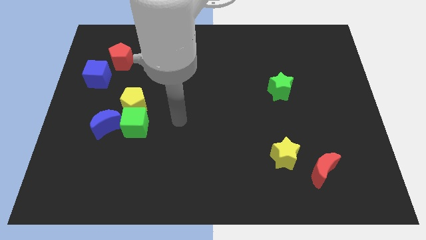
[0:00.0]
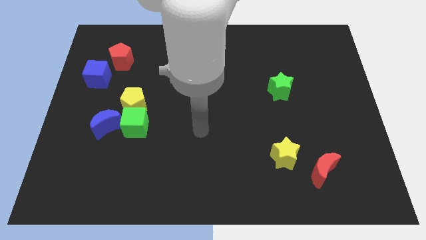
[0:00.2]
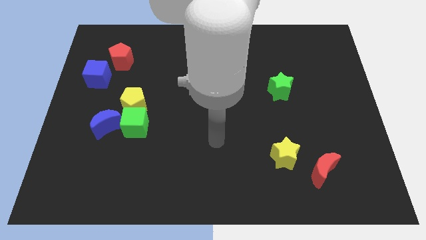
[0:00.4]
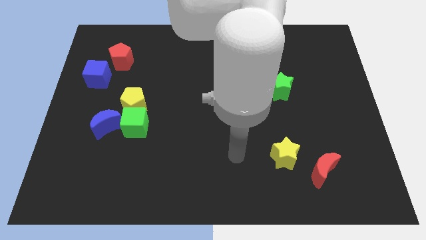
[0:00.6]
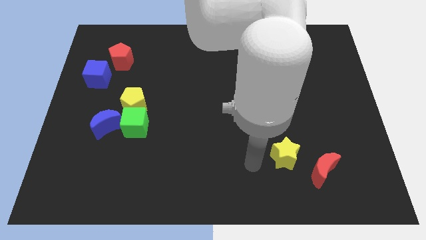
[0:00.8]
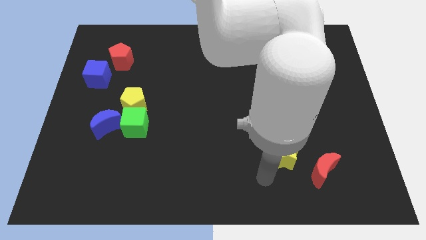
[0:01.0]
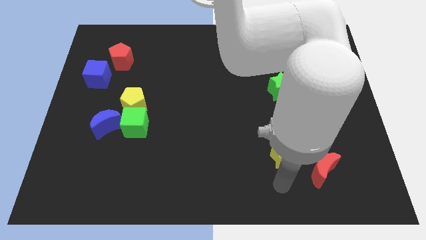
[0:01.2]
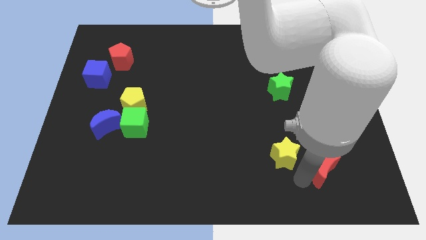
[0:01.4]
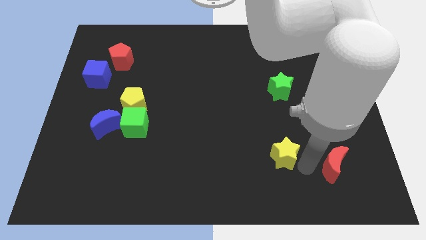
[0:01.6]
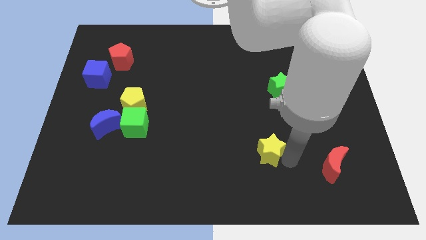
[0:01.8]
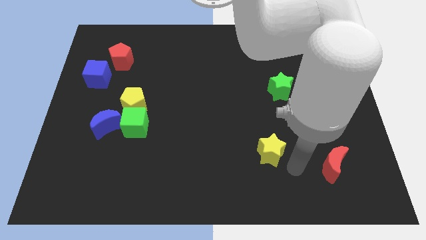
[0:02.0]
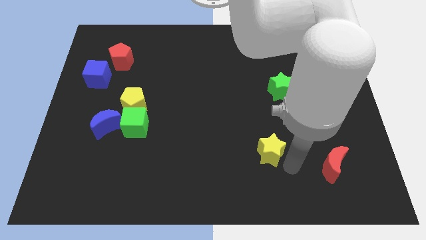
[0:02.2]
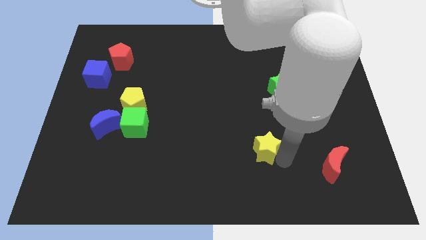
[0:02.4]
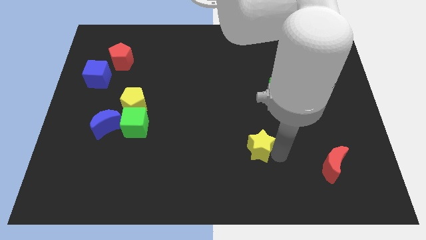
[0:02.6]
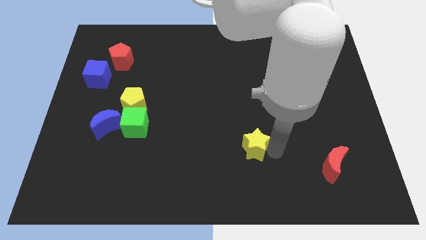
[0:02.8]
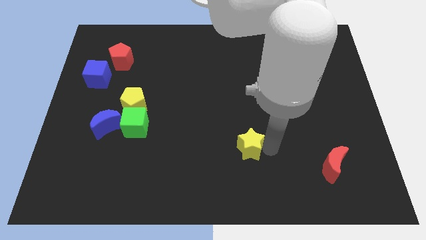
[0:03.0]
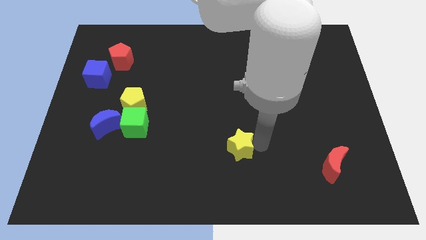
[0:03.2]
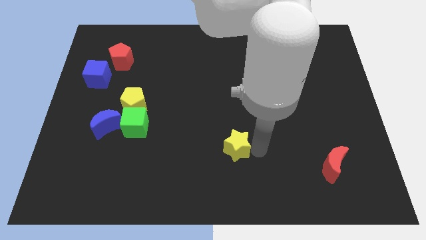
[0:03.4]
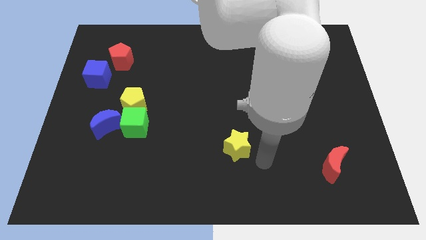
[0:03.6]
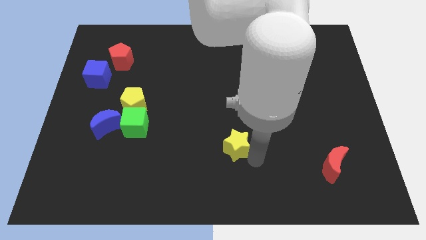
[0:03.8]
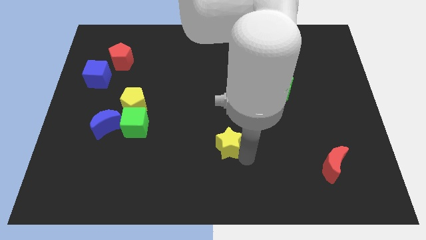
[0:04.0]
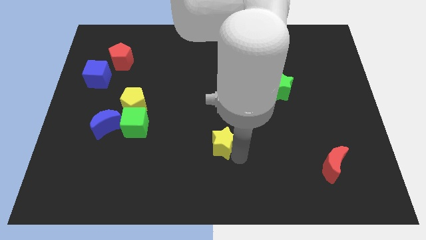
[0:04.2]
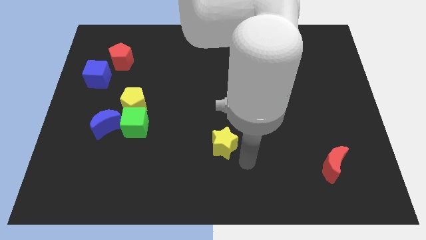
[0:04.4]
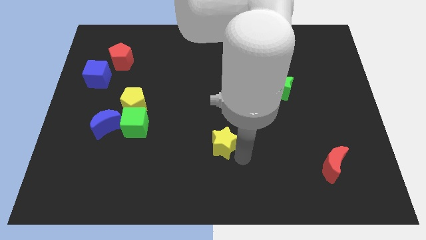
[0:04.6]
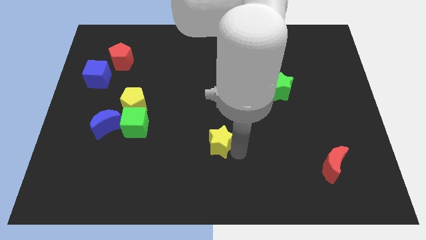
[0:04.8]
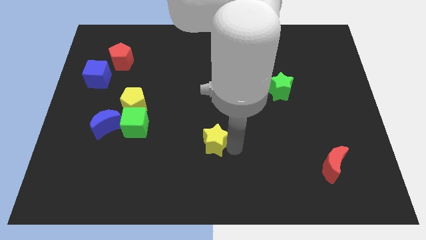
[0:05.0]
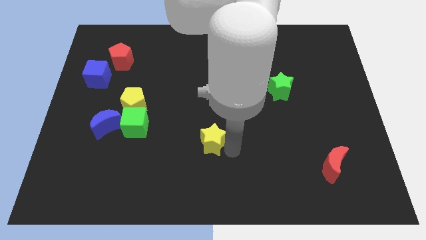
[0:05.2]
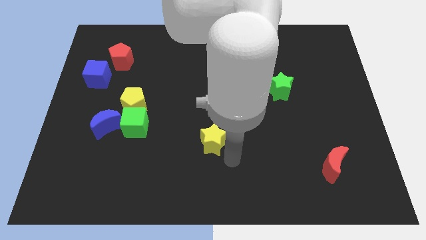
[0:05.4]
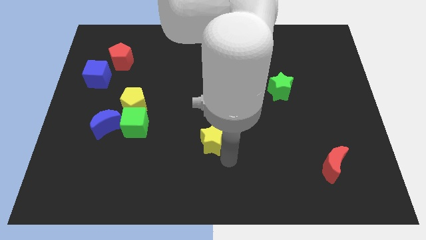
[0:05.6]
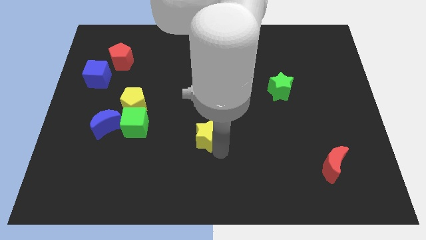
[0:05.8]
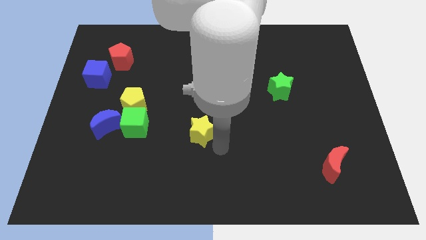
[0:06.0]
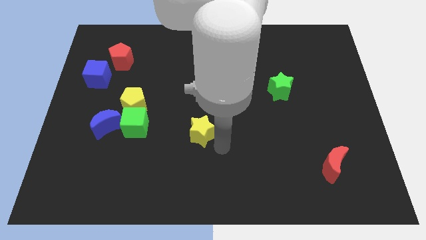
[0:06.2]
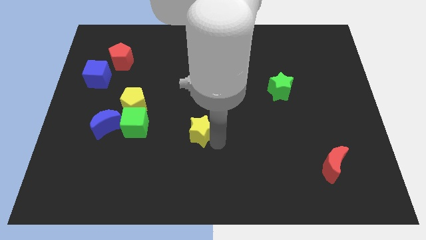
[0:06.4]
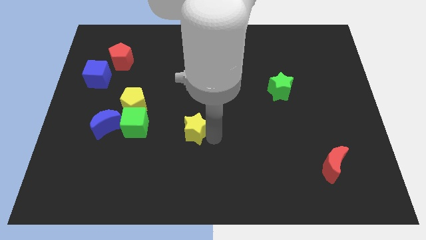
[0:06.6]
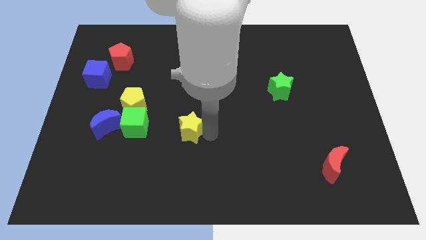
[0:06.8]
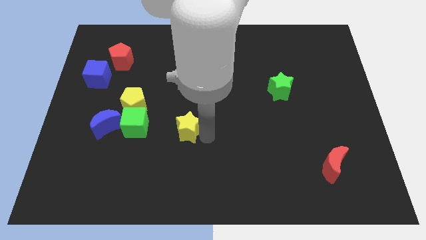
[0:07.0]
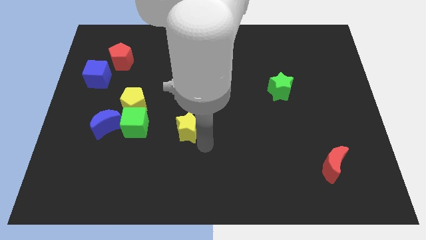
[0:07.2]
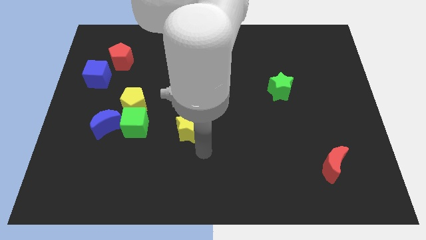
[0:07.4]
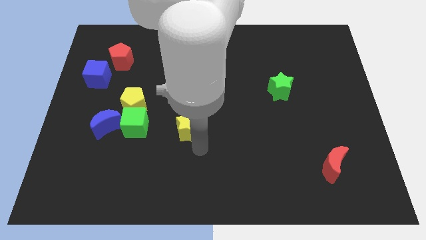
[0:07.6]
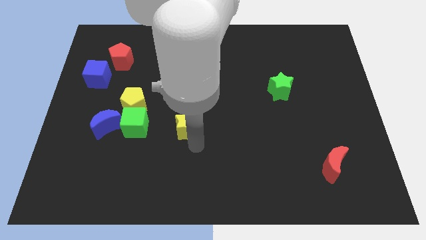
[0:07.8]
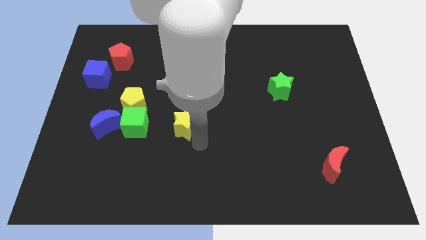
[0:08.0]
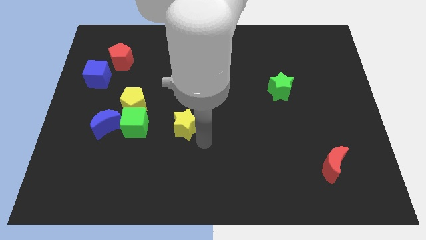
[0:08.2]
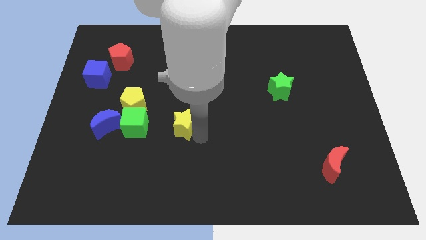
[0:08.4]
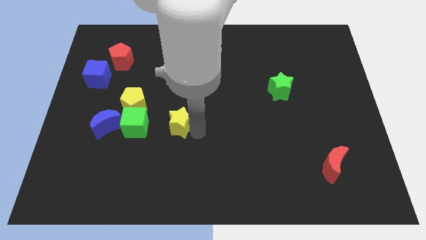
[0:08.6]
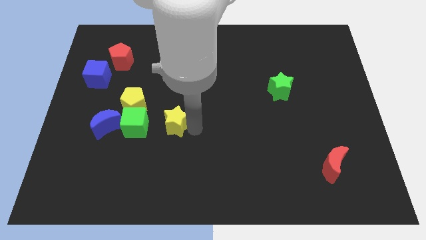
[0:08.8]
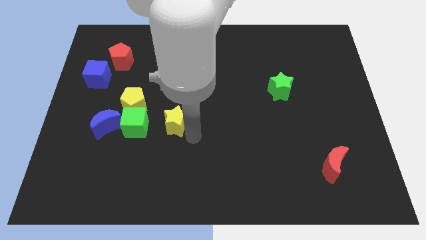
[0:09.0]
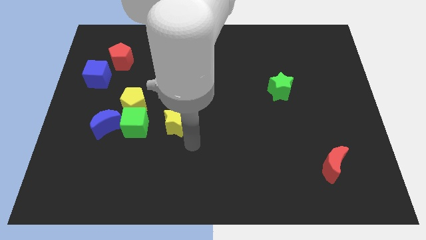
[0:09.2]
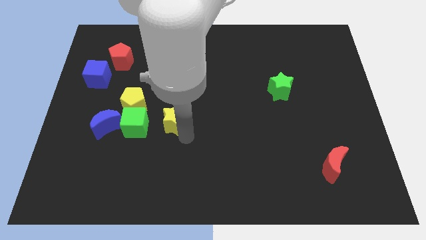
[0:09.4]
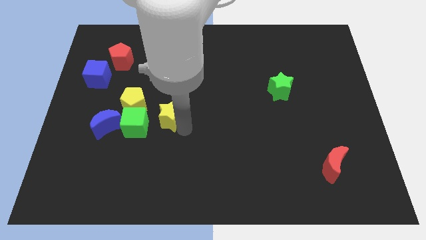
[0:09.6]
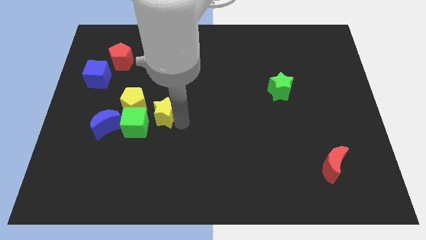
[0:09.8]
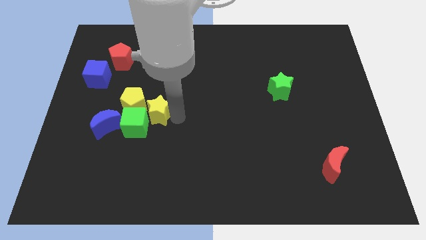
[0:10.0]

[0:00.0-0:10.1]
slide the yellow star towards the yellow pentagon

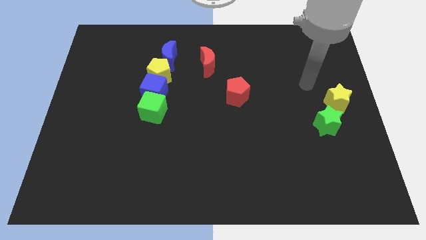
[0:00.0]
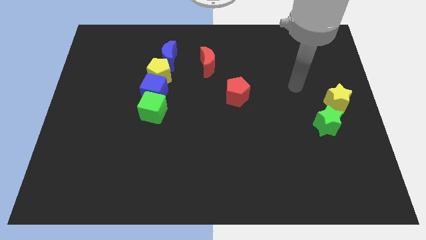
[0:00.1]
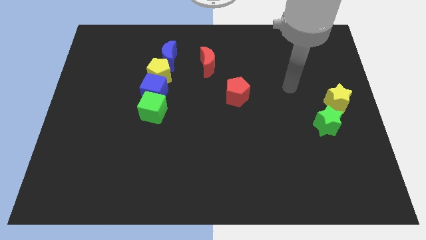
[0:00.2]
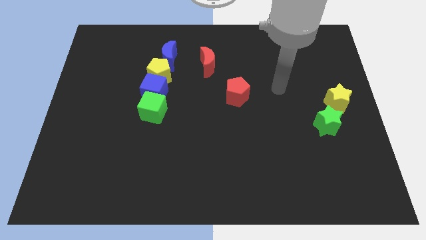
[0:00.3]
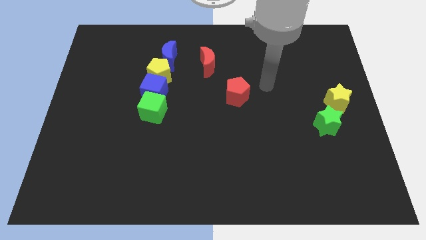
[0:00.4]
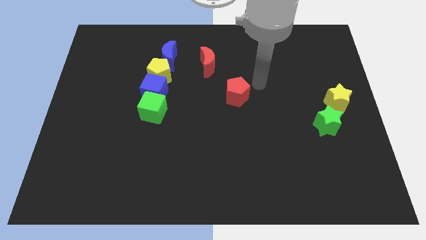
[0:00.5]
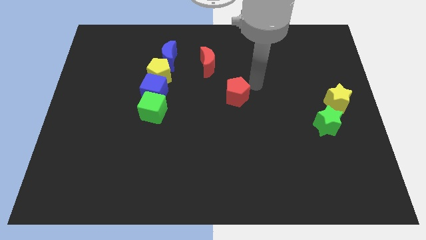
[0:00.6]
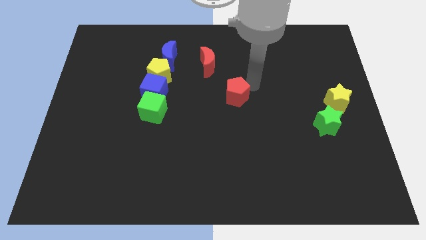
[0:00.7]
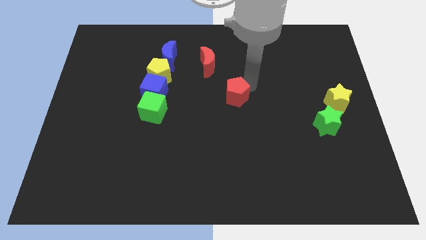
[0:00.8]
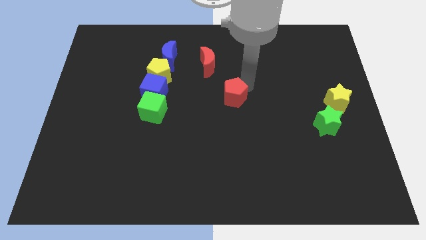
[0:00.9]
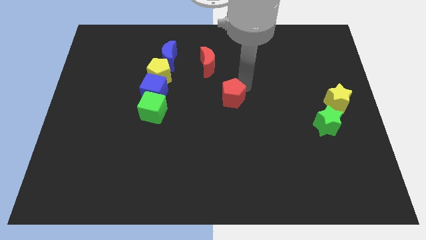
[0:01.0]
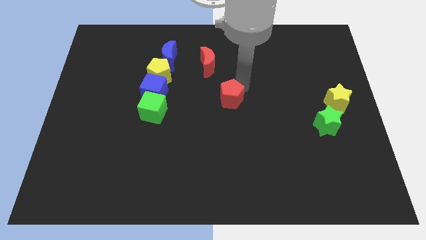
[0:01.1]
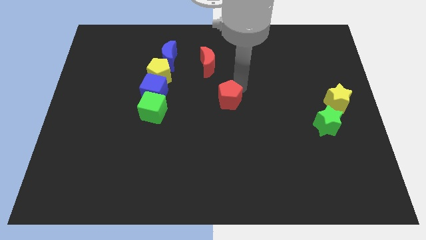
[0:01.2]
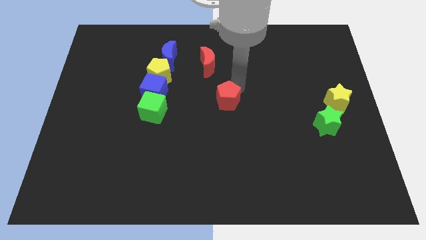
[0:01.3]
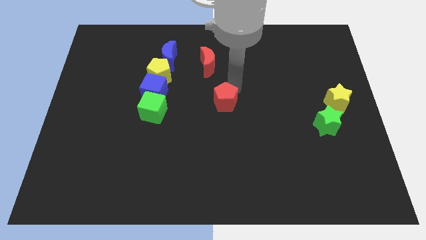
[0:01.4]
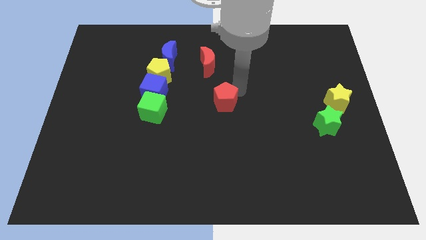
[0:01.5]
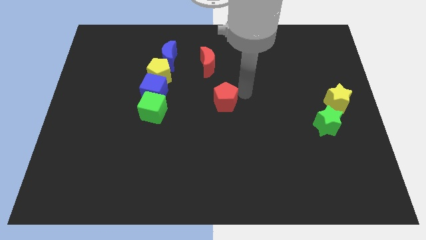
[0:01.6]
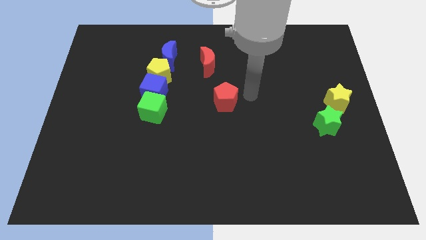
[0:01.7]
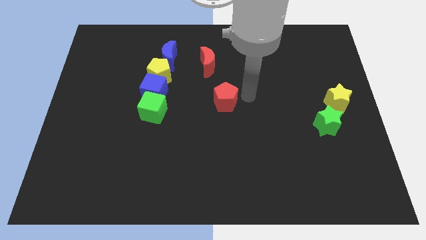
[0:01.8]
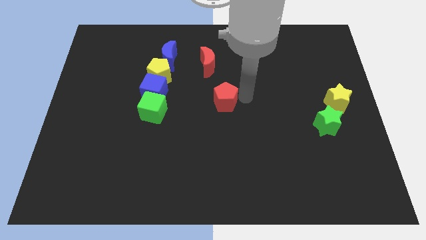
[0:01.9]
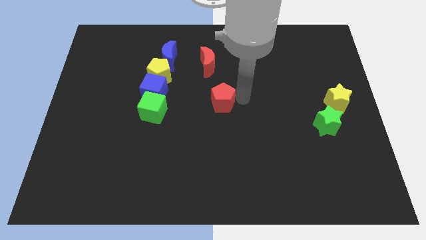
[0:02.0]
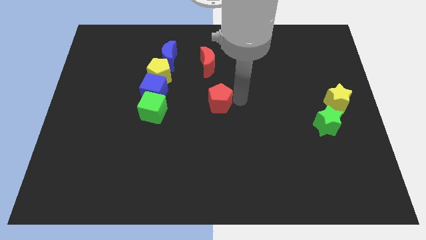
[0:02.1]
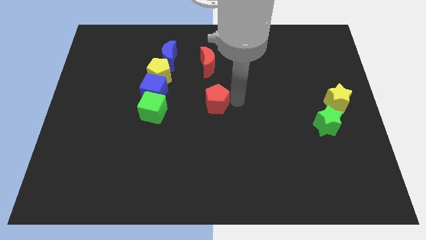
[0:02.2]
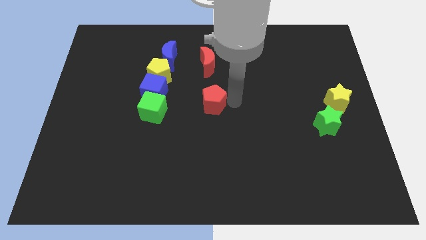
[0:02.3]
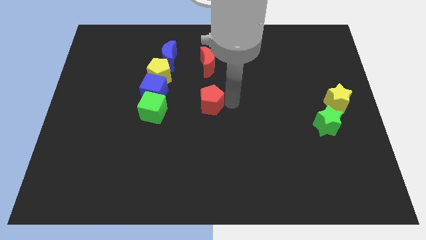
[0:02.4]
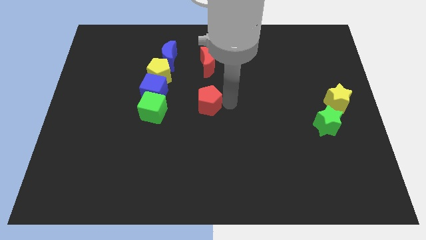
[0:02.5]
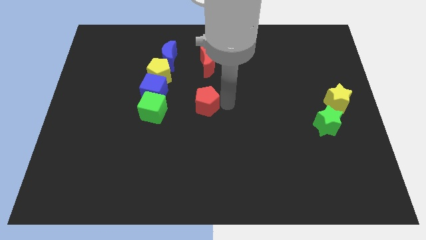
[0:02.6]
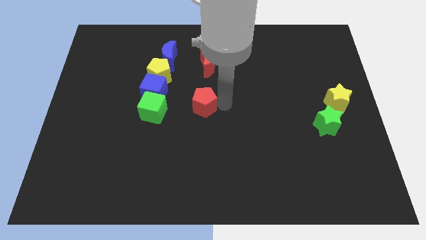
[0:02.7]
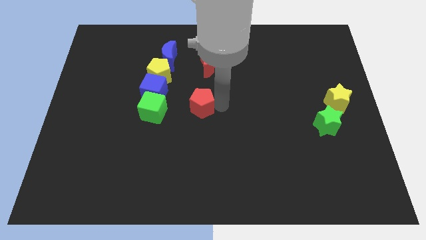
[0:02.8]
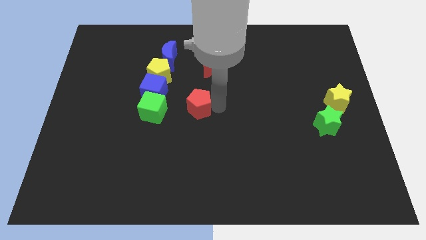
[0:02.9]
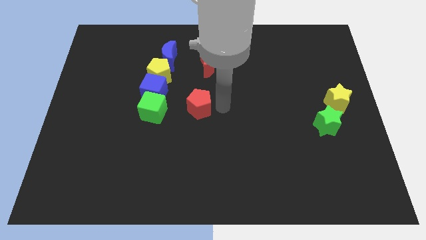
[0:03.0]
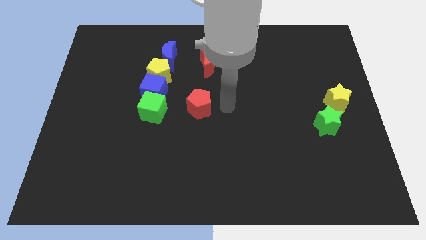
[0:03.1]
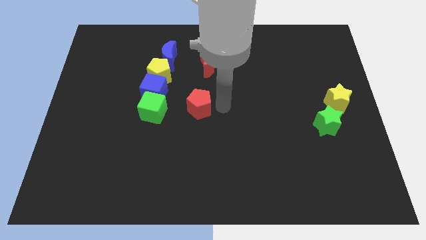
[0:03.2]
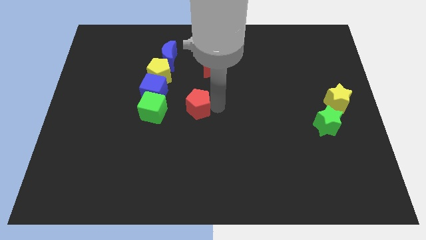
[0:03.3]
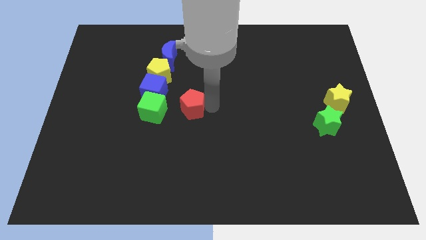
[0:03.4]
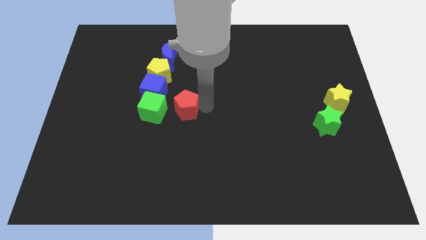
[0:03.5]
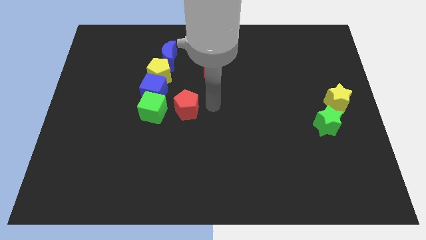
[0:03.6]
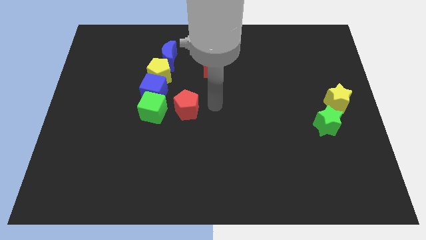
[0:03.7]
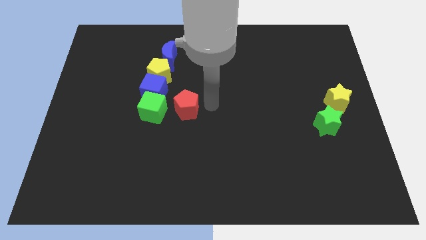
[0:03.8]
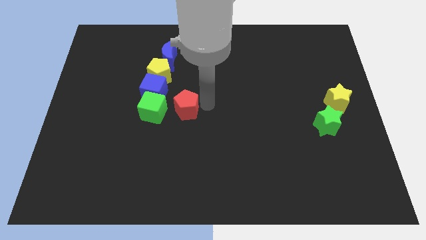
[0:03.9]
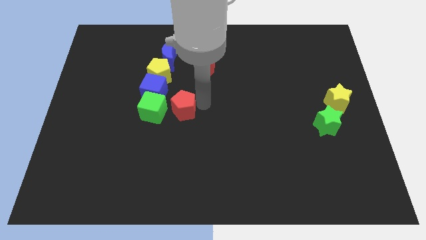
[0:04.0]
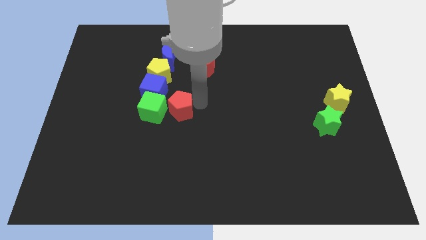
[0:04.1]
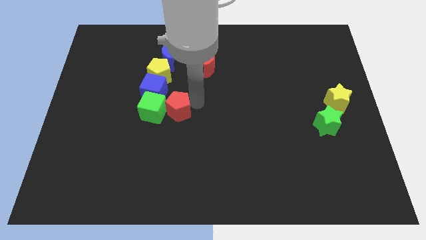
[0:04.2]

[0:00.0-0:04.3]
move the red pentagon to the green cube
